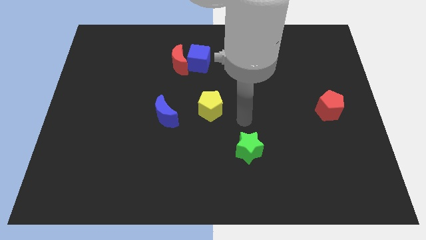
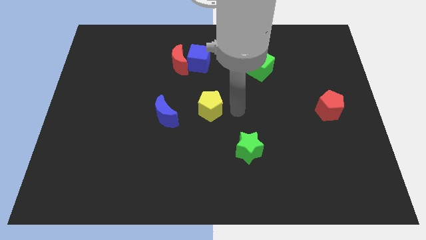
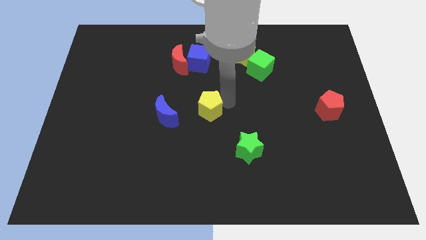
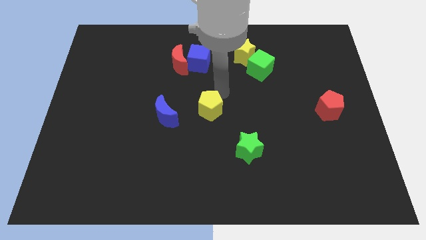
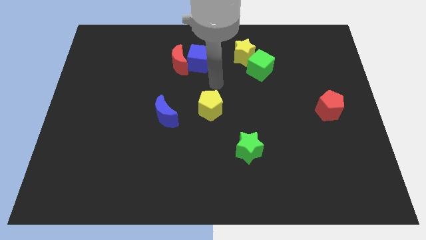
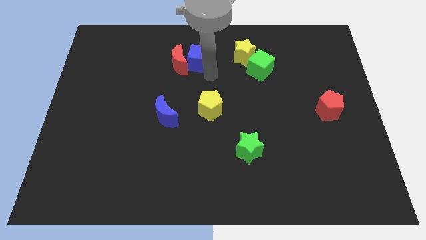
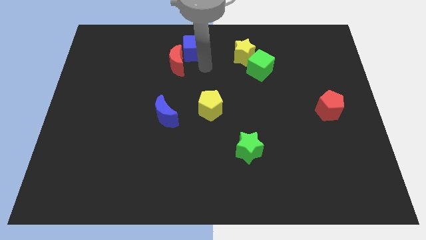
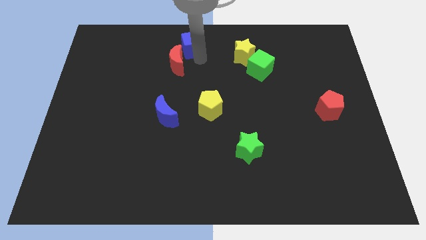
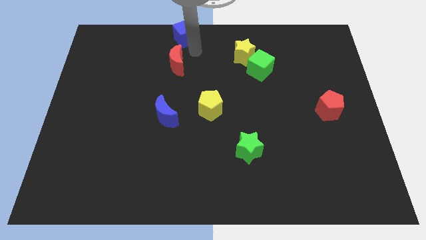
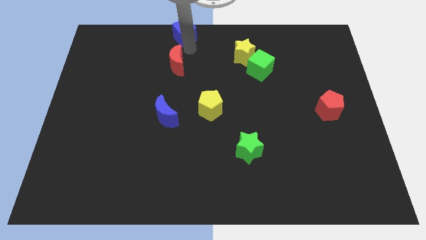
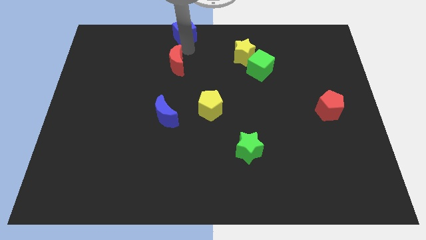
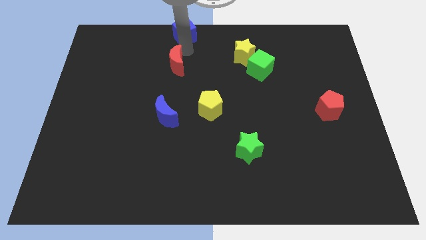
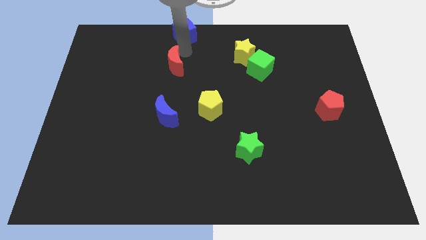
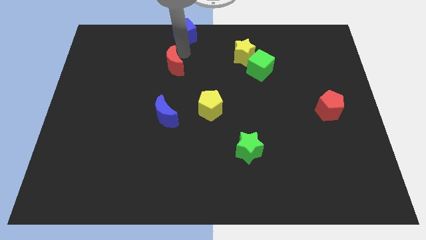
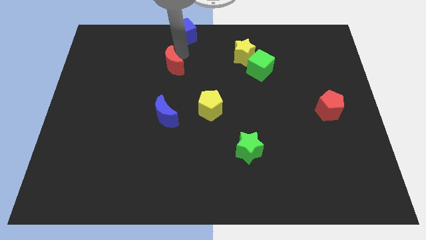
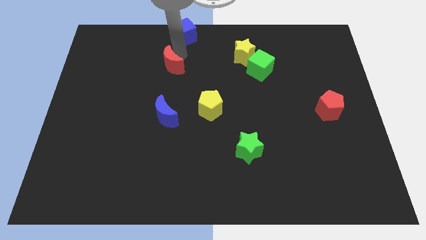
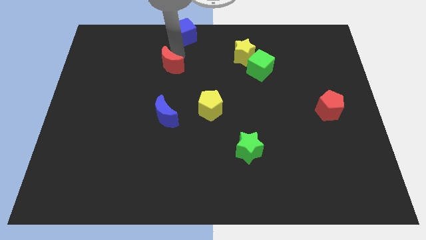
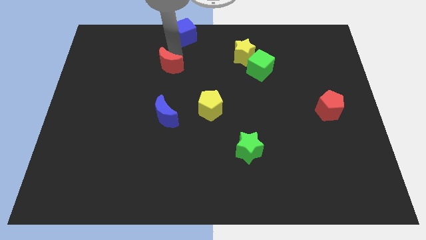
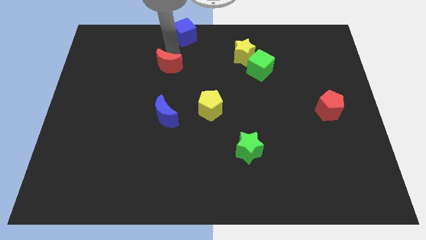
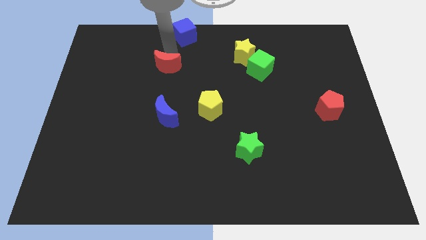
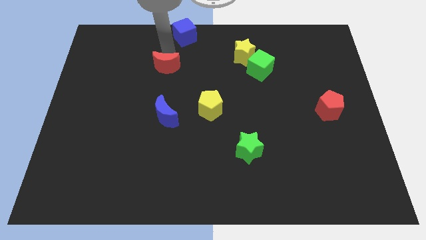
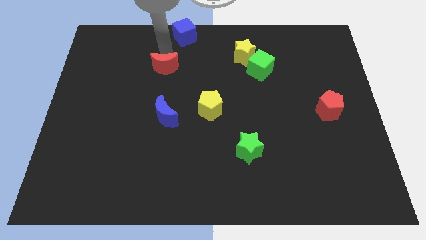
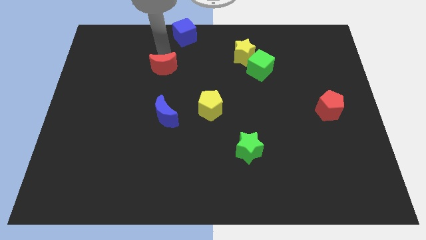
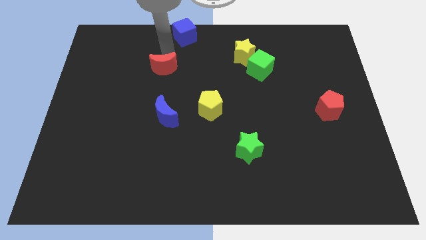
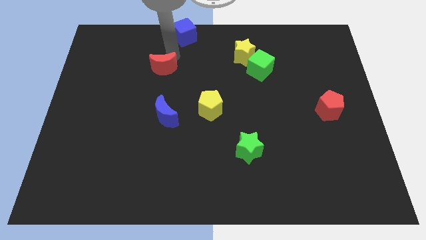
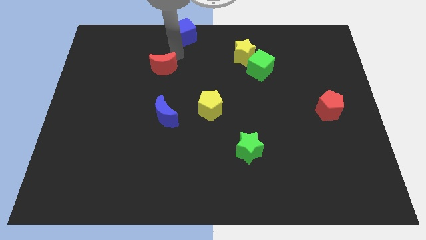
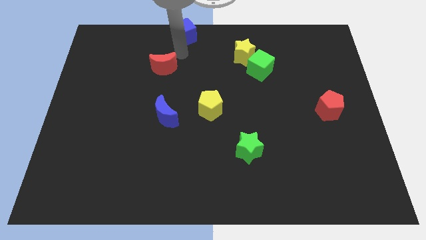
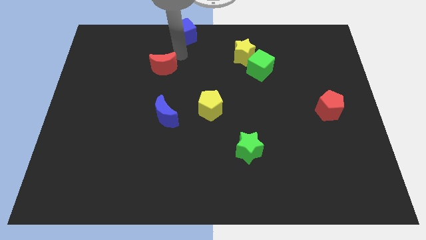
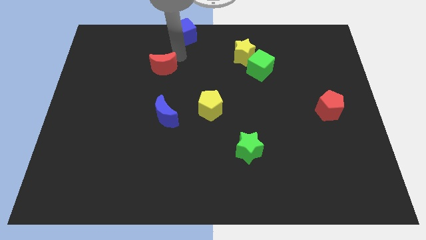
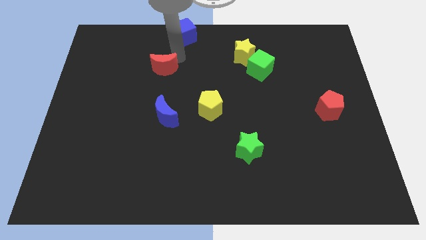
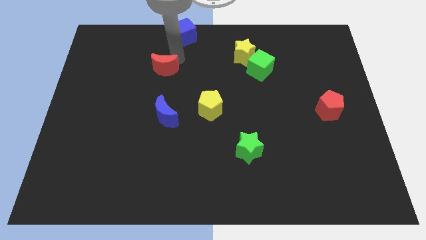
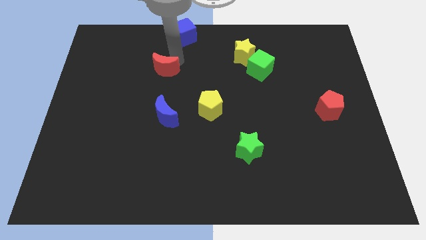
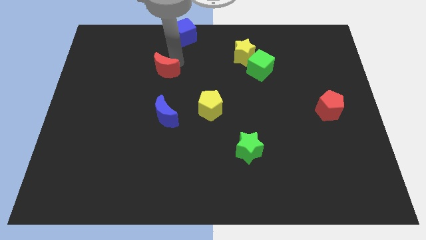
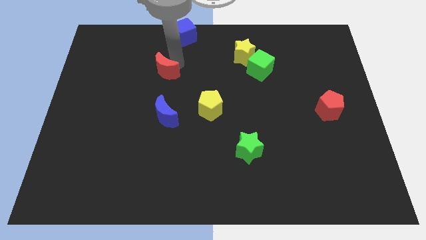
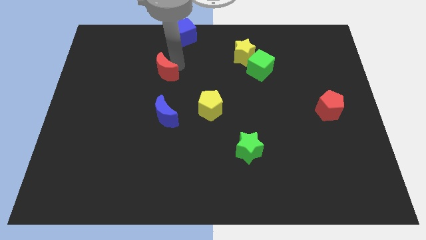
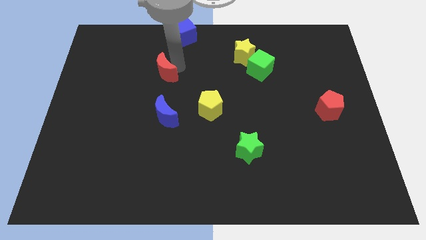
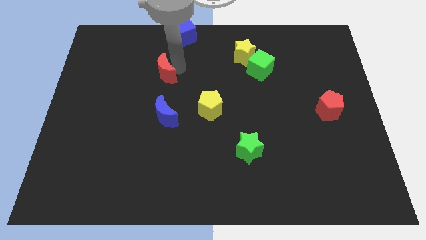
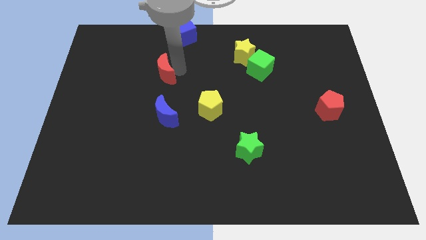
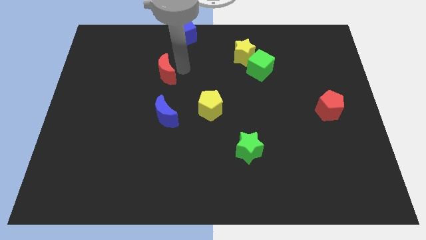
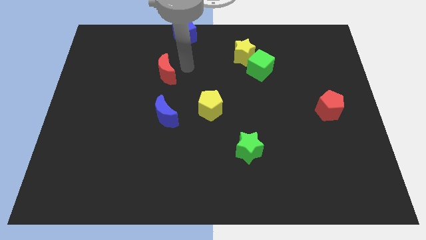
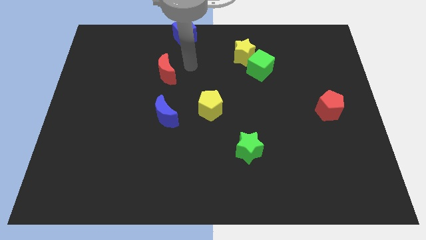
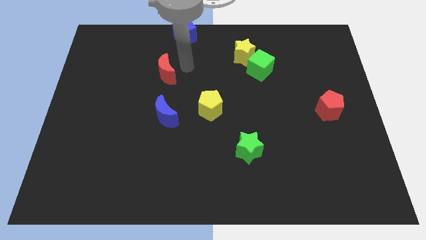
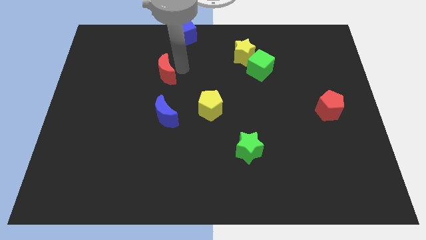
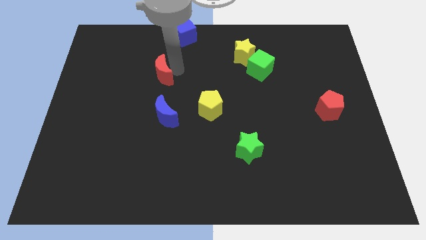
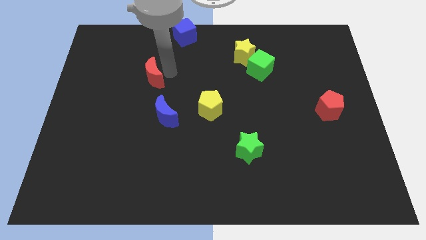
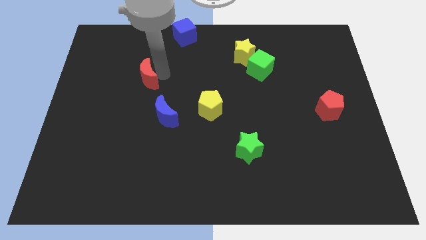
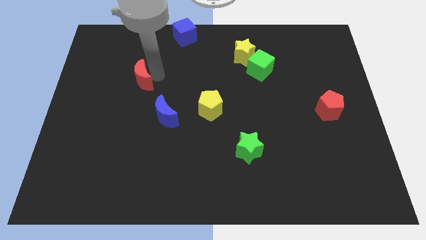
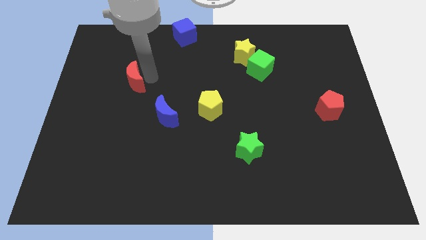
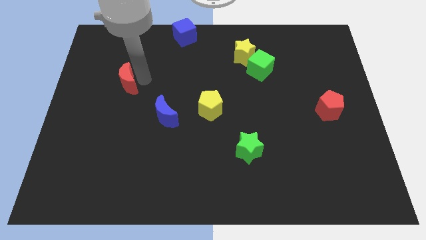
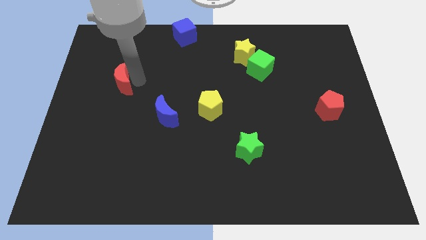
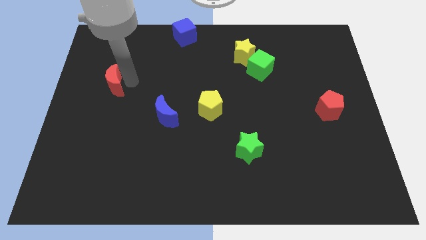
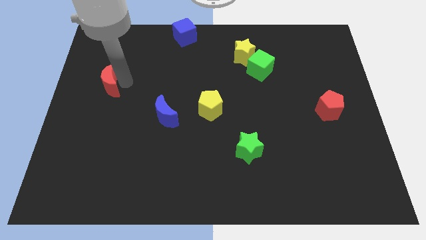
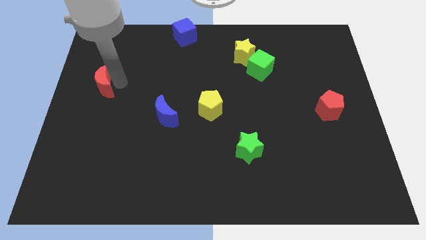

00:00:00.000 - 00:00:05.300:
move the red moon to the center left

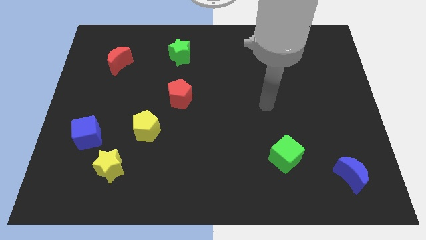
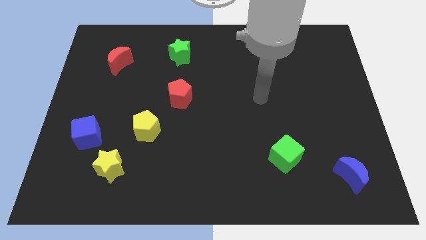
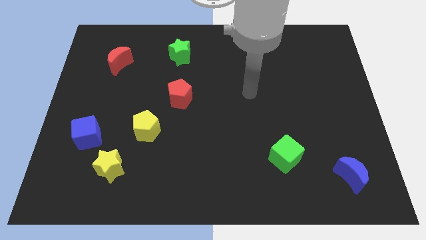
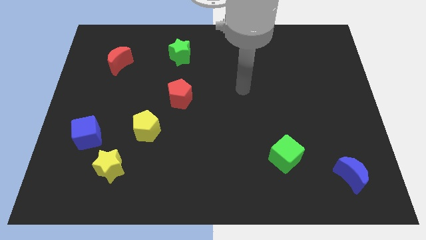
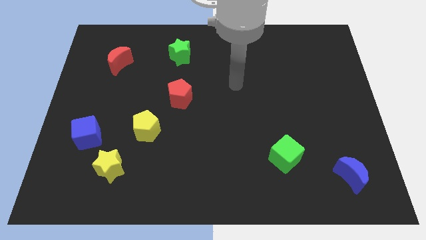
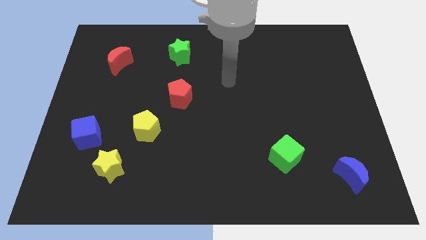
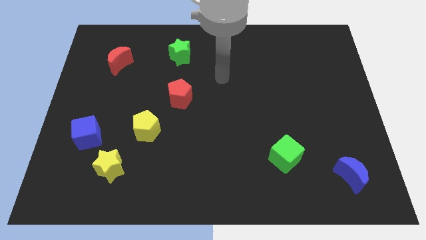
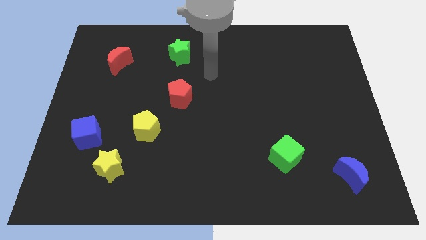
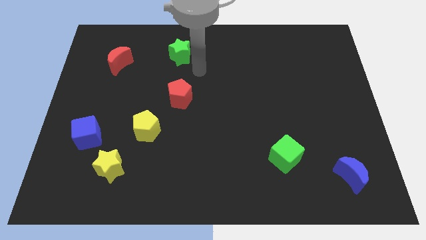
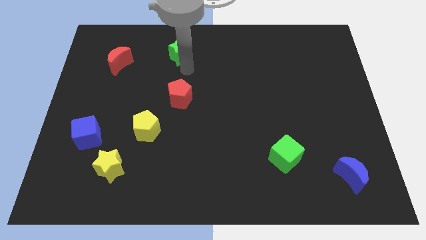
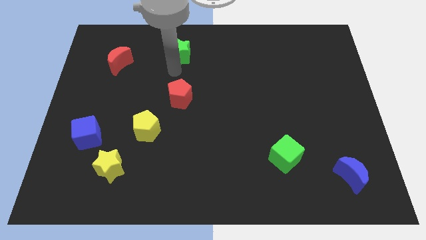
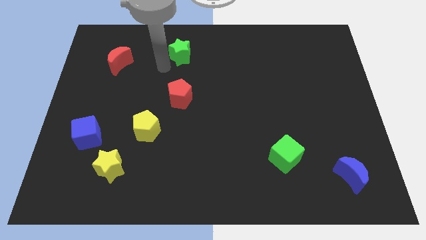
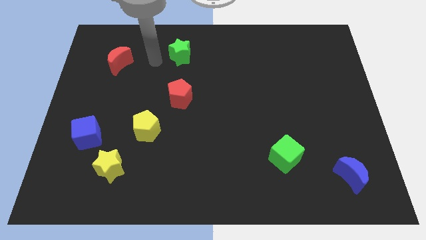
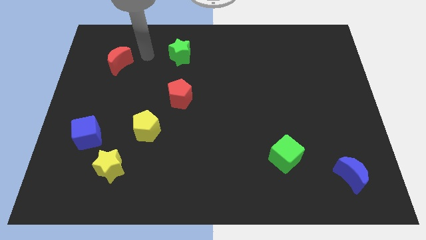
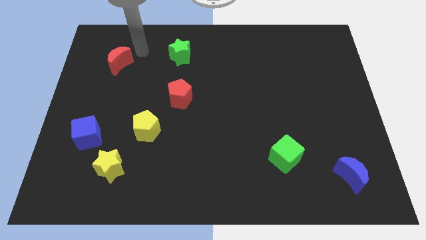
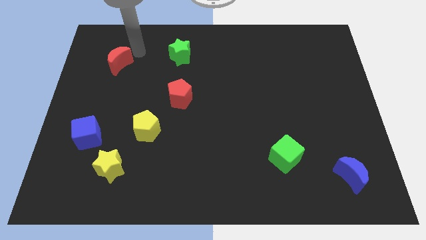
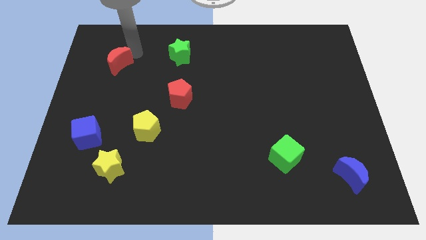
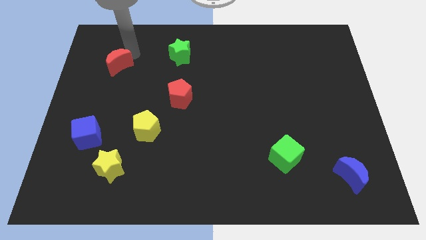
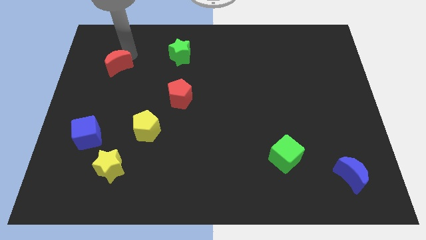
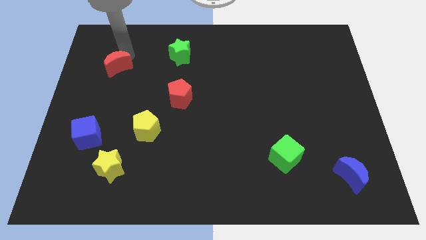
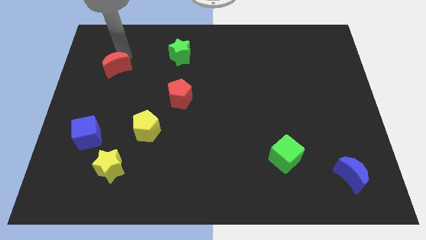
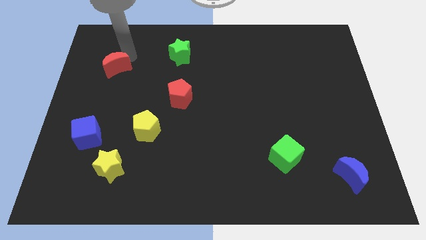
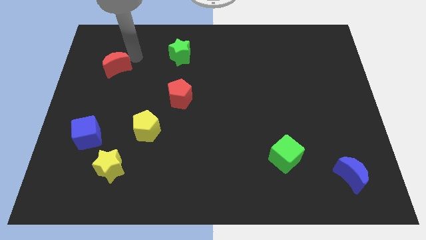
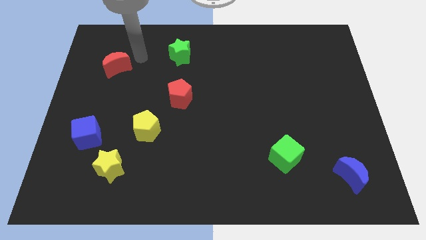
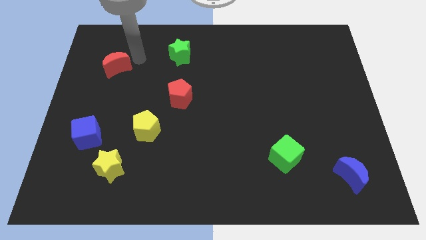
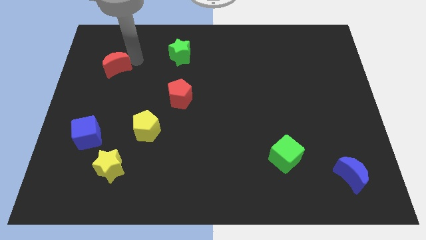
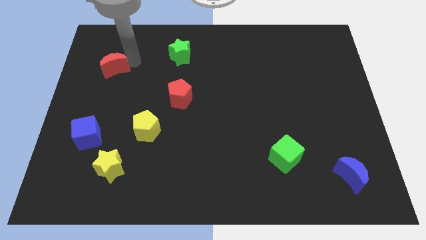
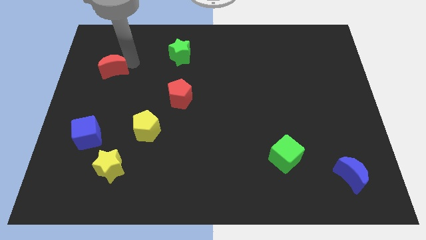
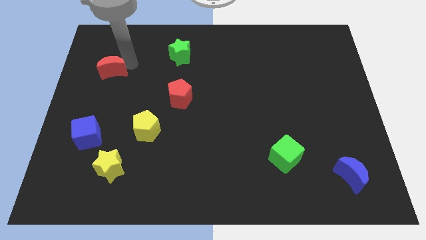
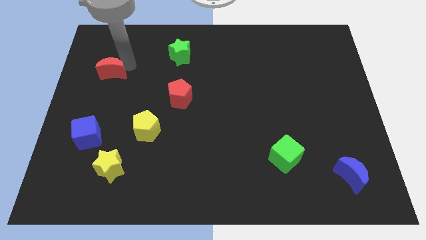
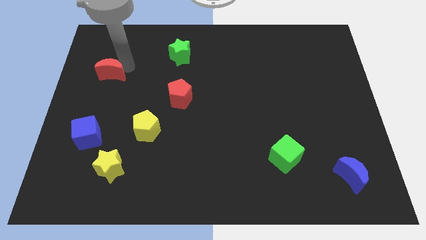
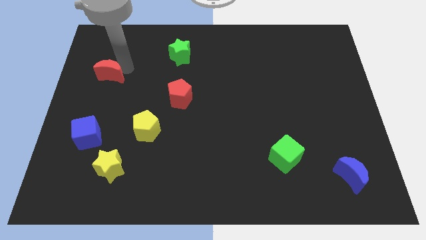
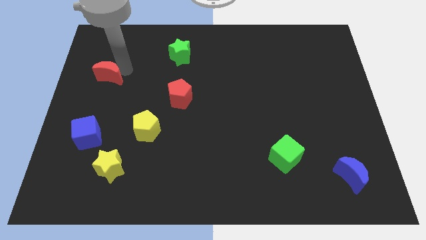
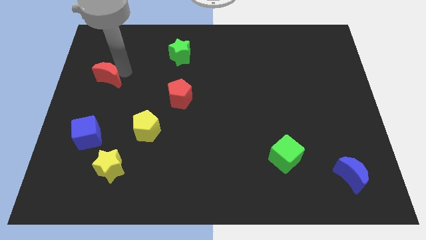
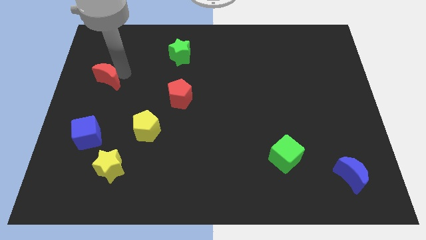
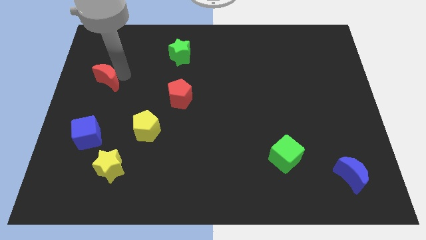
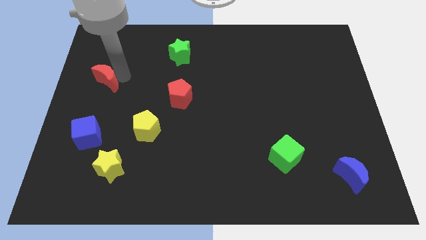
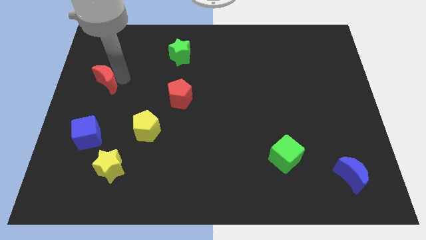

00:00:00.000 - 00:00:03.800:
push the red moon to the center left
